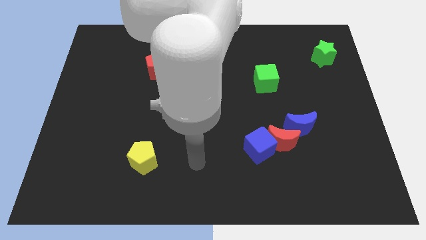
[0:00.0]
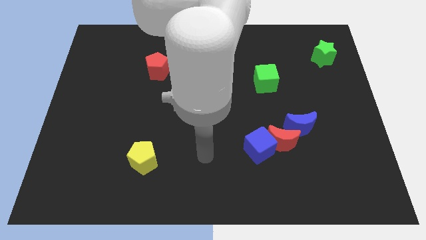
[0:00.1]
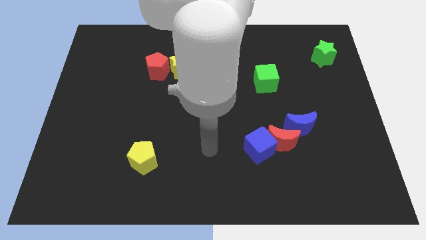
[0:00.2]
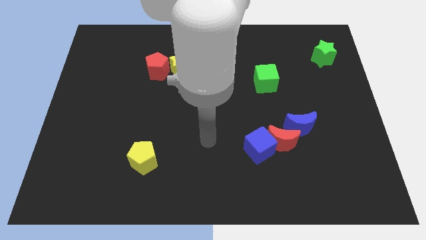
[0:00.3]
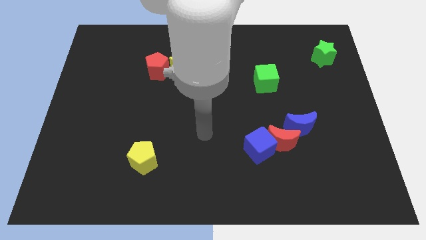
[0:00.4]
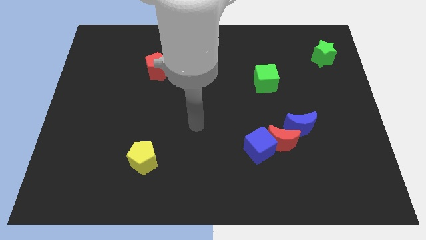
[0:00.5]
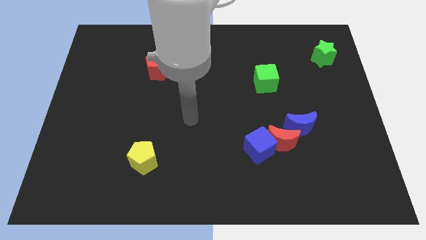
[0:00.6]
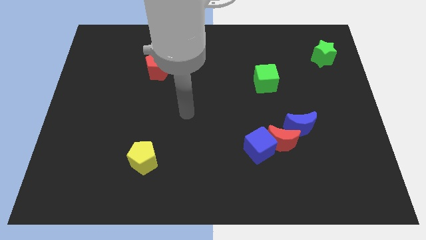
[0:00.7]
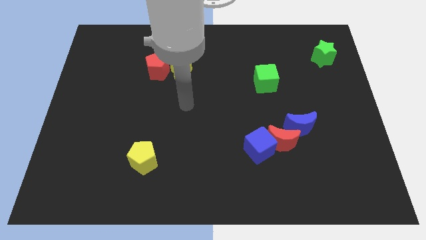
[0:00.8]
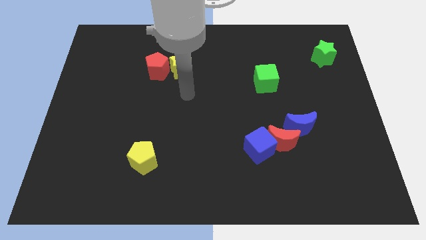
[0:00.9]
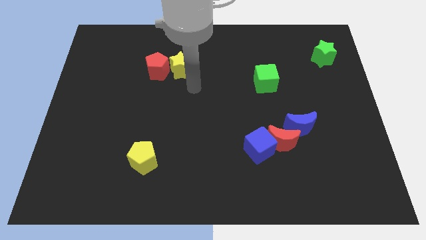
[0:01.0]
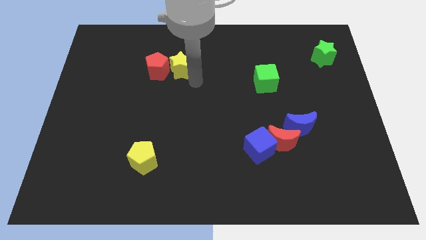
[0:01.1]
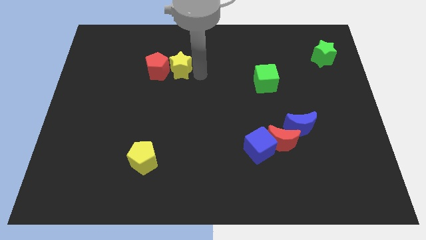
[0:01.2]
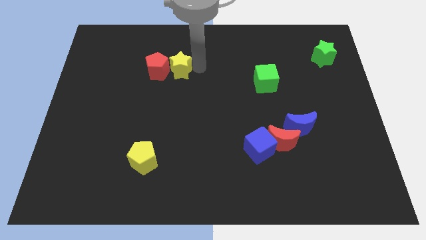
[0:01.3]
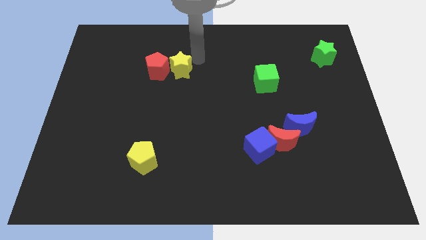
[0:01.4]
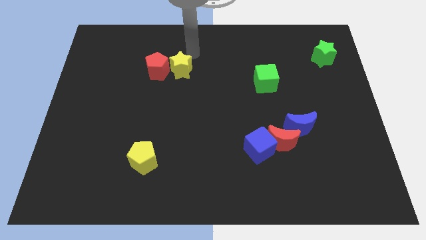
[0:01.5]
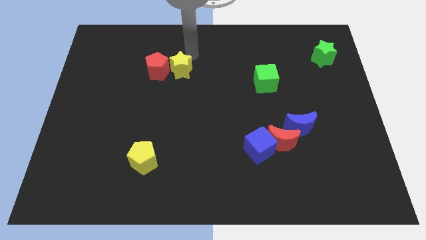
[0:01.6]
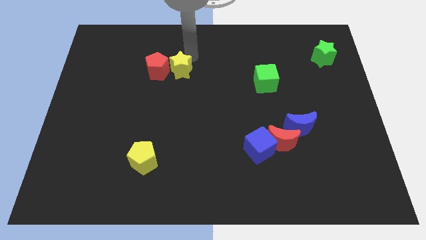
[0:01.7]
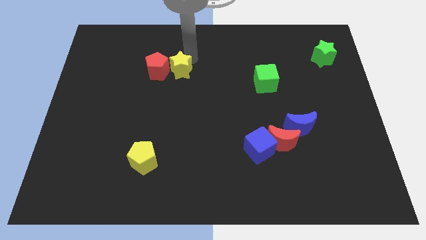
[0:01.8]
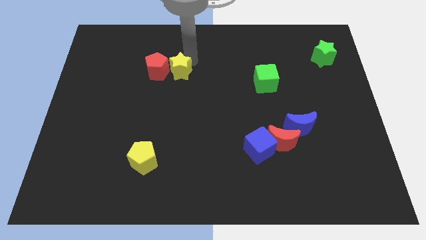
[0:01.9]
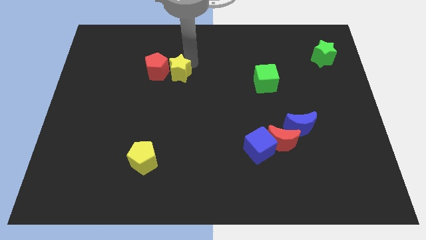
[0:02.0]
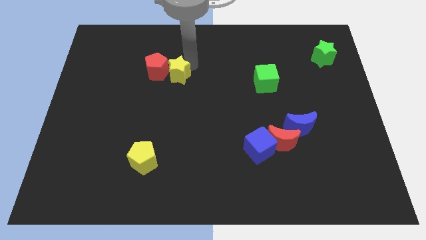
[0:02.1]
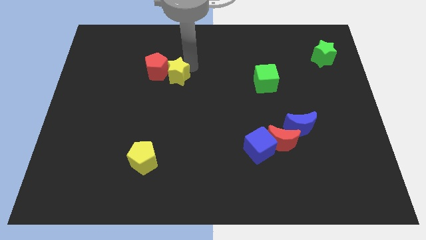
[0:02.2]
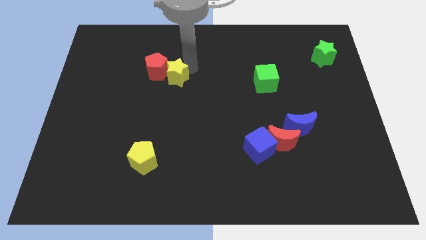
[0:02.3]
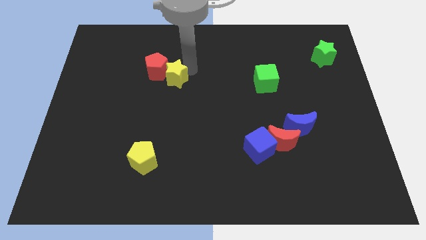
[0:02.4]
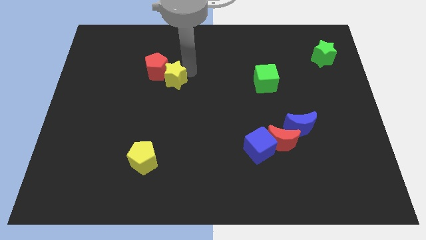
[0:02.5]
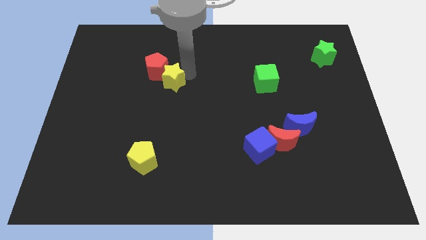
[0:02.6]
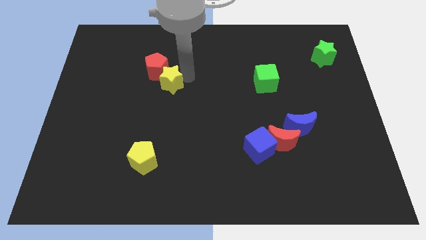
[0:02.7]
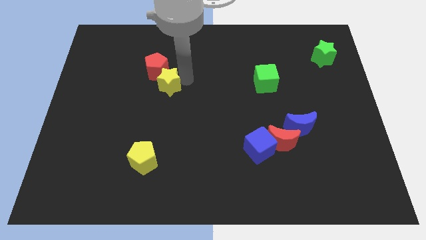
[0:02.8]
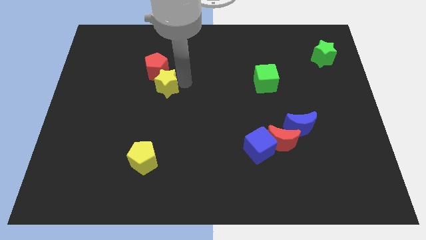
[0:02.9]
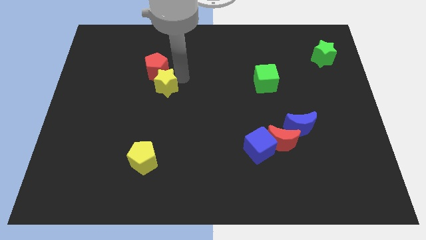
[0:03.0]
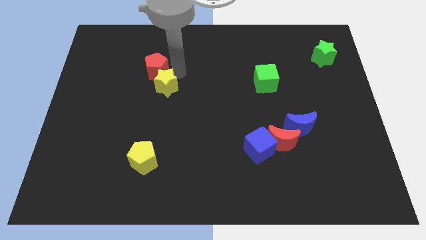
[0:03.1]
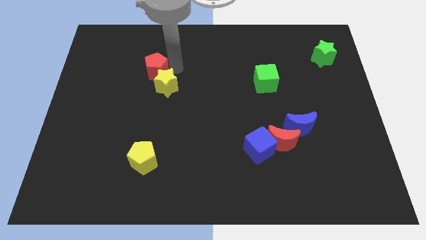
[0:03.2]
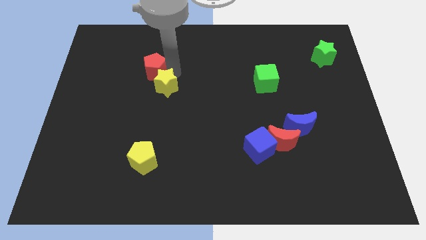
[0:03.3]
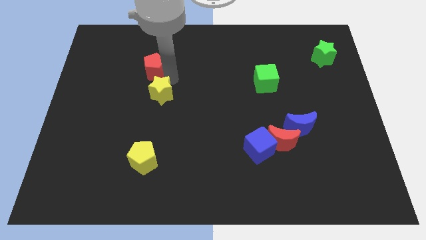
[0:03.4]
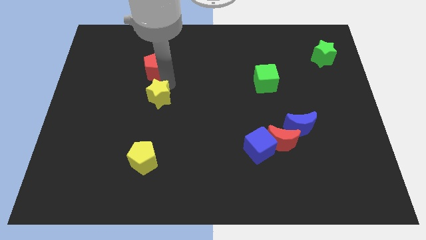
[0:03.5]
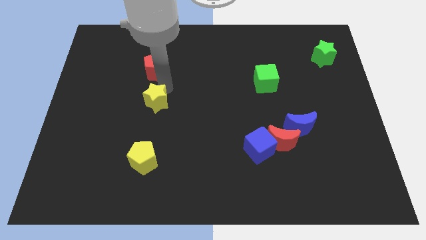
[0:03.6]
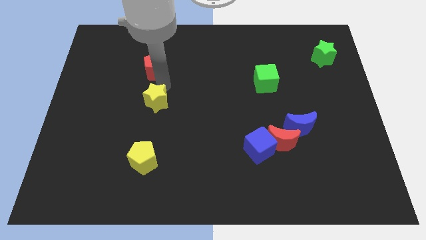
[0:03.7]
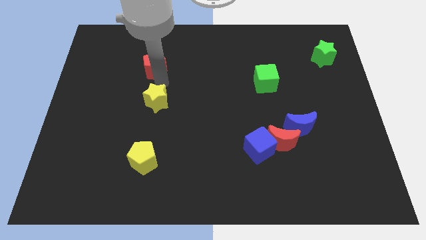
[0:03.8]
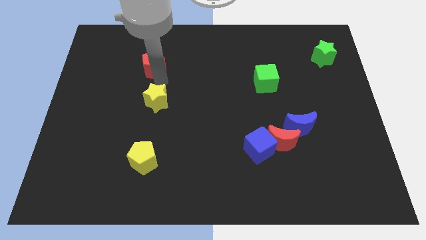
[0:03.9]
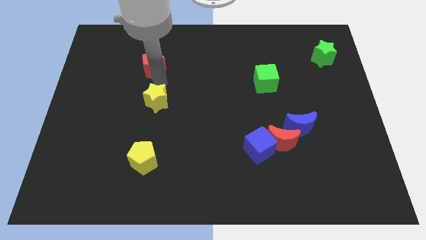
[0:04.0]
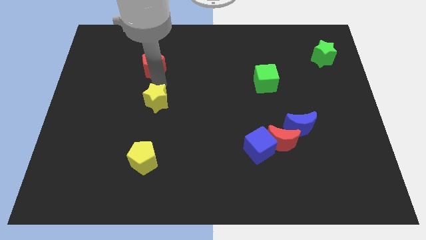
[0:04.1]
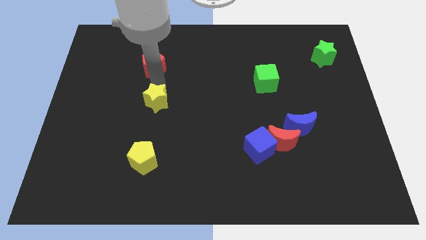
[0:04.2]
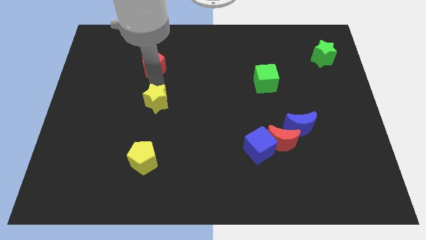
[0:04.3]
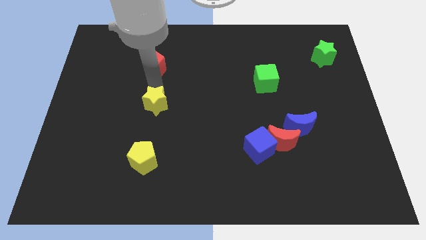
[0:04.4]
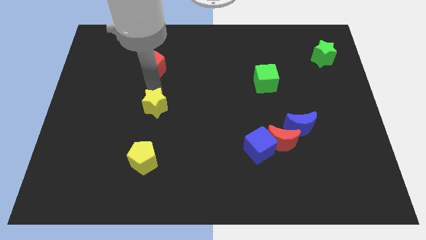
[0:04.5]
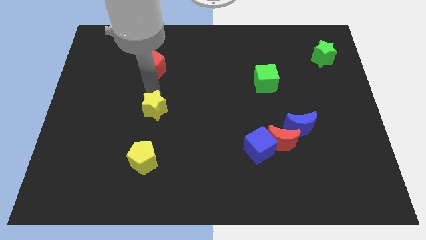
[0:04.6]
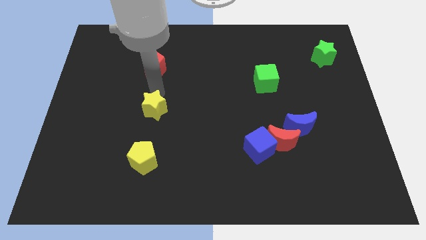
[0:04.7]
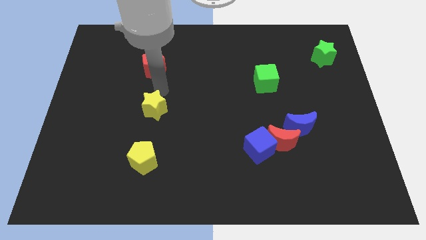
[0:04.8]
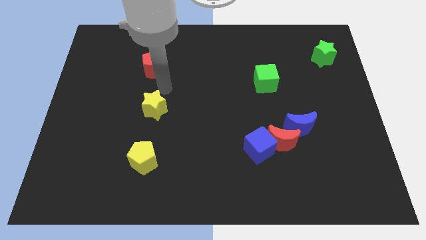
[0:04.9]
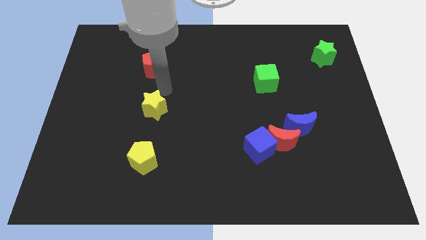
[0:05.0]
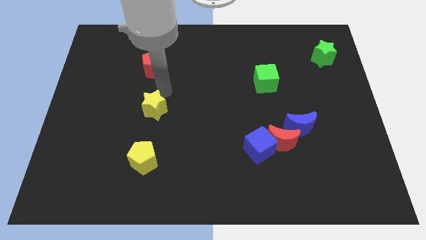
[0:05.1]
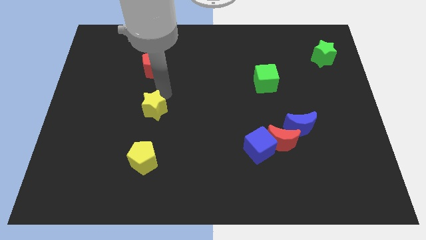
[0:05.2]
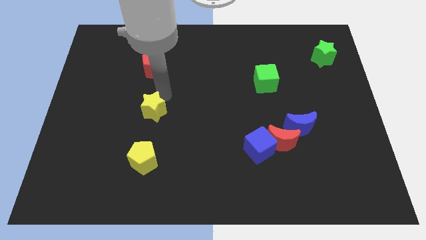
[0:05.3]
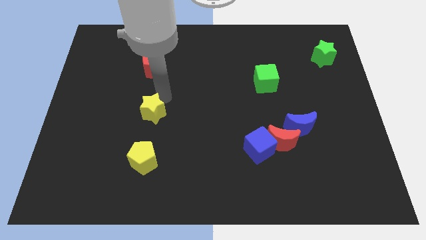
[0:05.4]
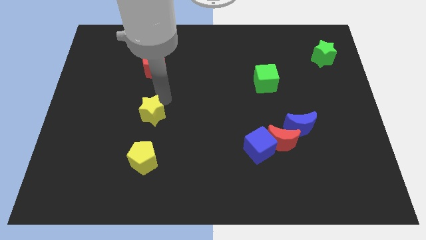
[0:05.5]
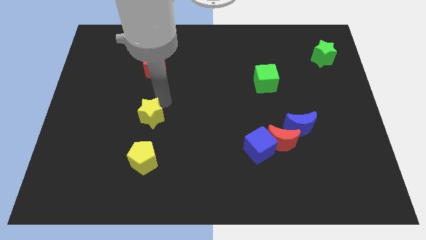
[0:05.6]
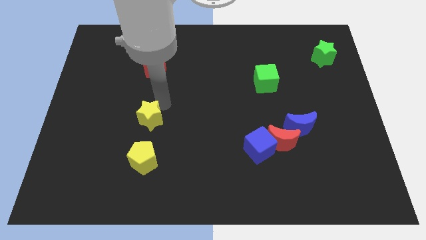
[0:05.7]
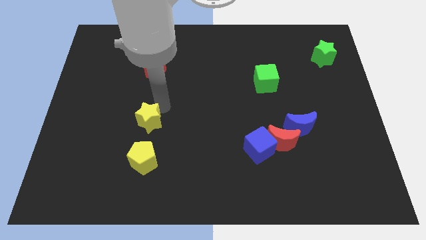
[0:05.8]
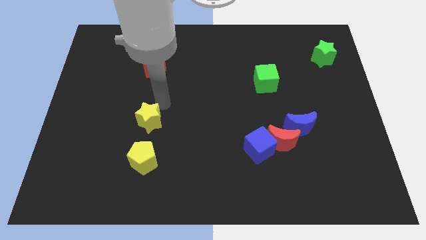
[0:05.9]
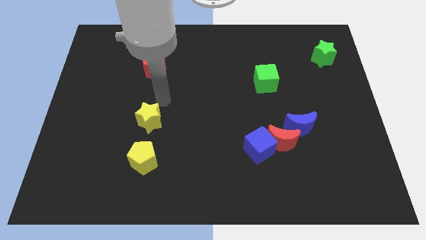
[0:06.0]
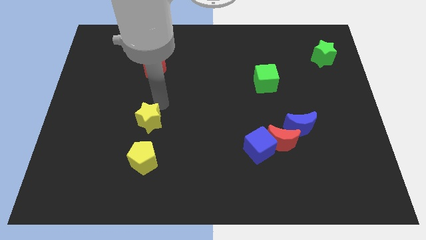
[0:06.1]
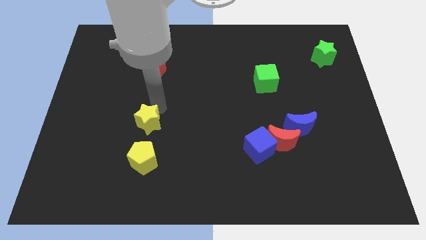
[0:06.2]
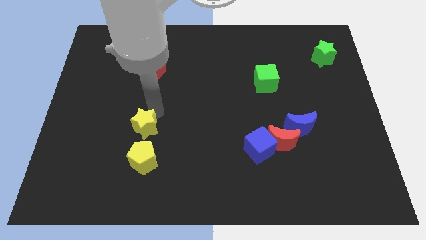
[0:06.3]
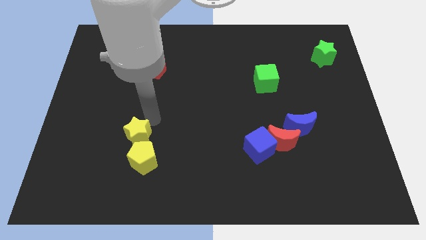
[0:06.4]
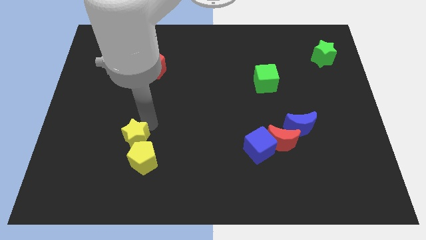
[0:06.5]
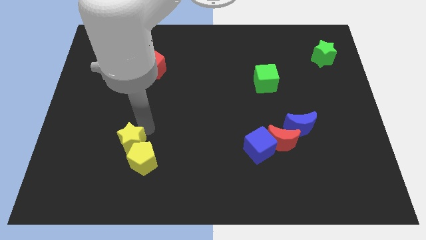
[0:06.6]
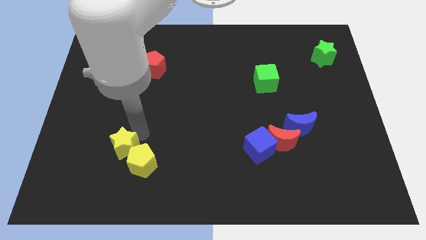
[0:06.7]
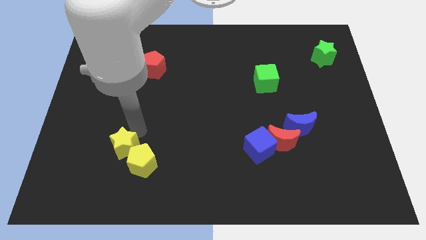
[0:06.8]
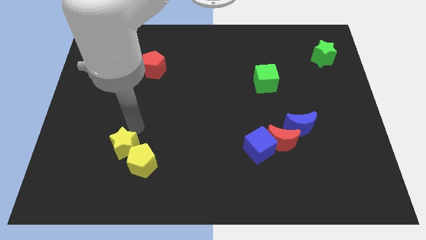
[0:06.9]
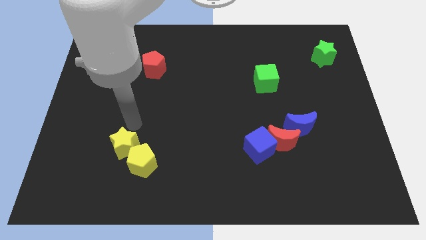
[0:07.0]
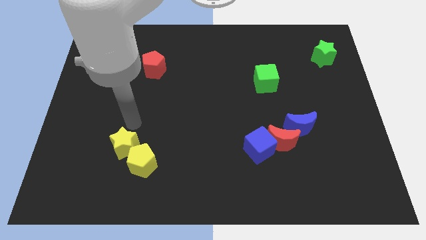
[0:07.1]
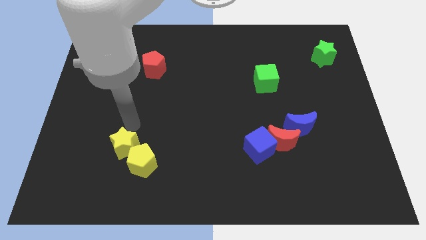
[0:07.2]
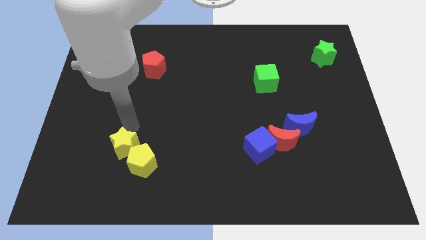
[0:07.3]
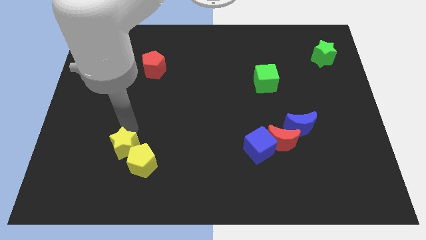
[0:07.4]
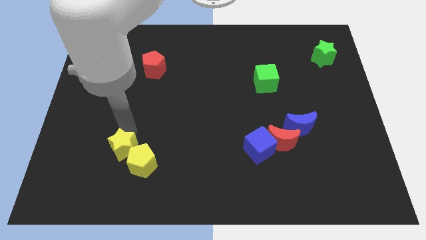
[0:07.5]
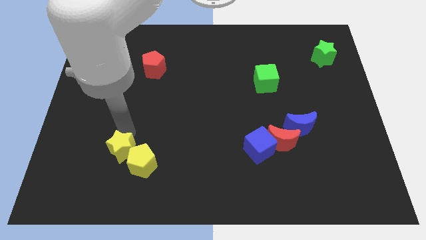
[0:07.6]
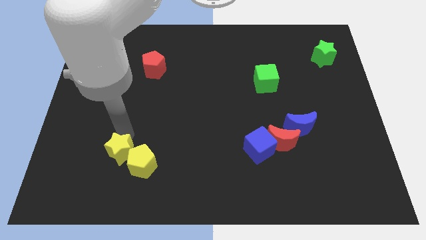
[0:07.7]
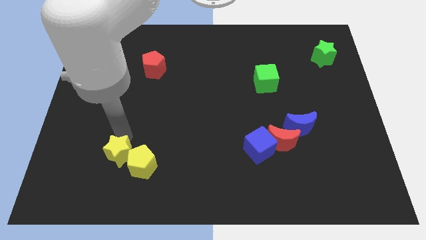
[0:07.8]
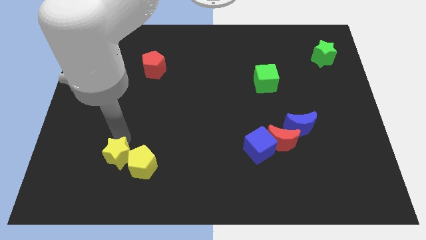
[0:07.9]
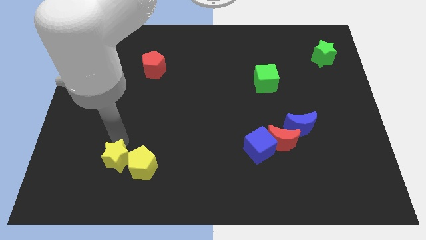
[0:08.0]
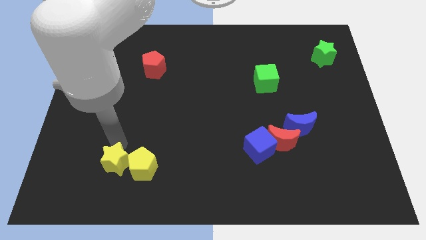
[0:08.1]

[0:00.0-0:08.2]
push the yellow star to the bottom left side of the yellow pentagon
